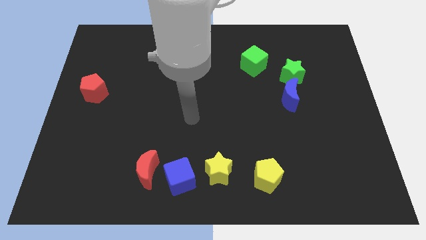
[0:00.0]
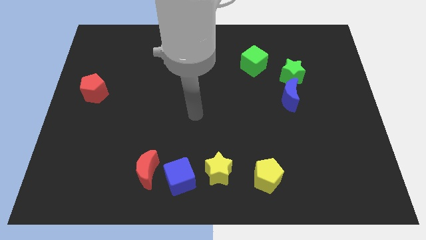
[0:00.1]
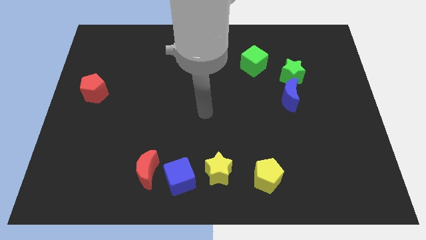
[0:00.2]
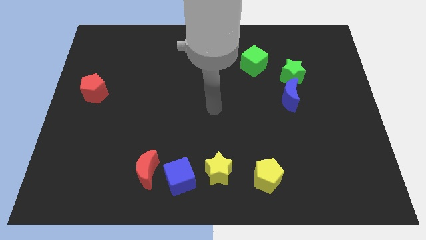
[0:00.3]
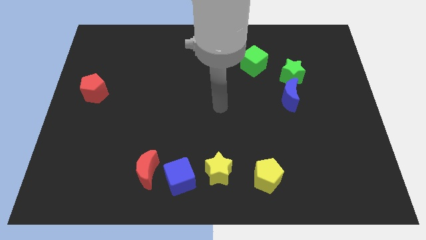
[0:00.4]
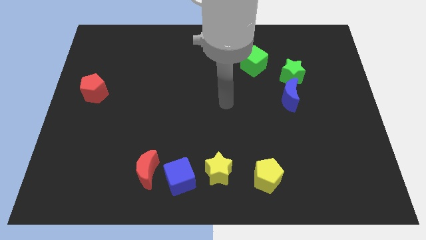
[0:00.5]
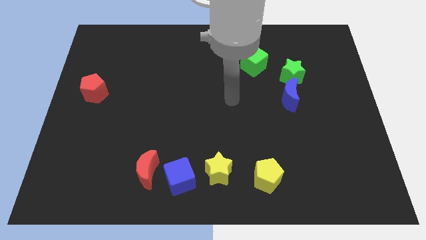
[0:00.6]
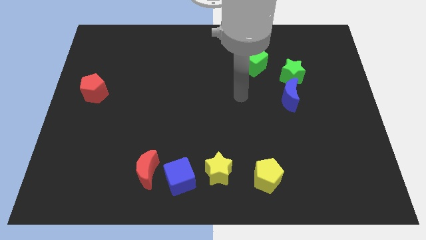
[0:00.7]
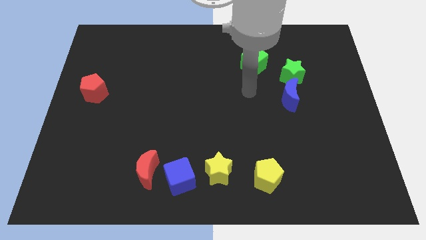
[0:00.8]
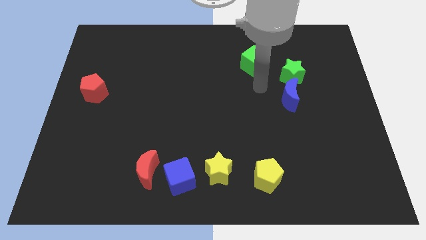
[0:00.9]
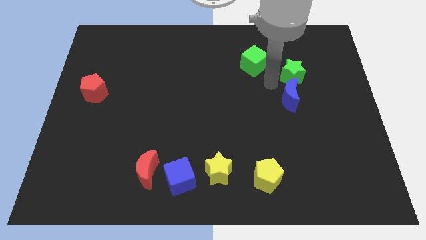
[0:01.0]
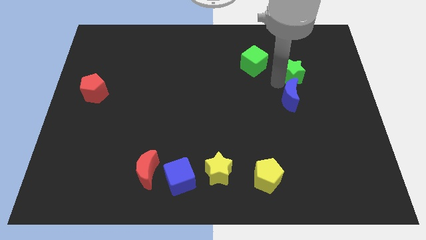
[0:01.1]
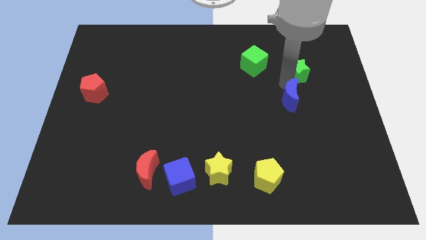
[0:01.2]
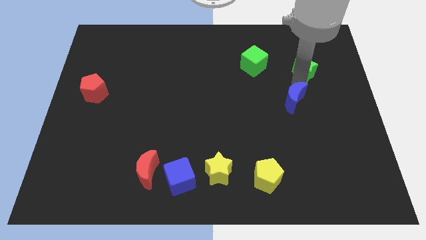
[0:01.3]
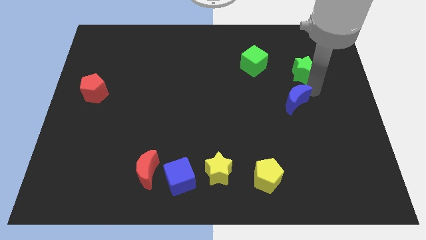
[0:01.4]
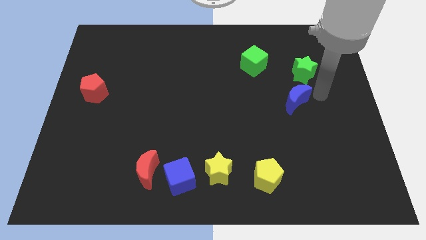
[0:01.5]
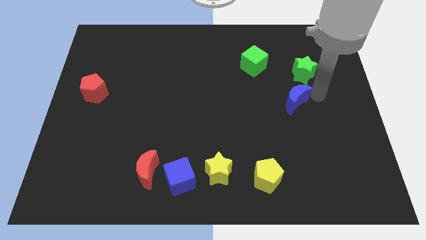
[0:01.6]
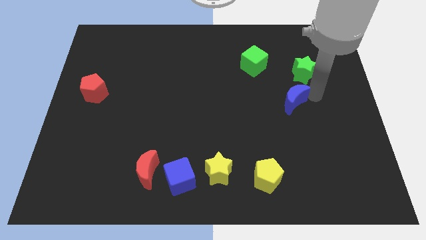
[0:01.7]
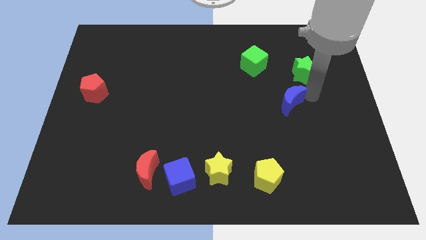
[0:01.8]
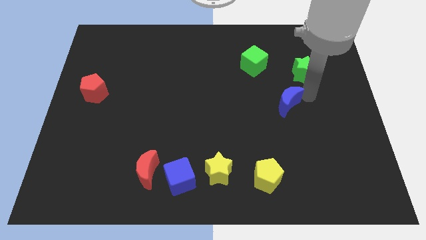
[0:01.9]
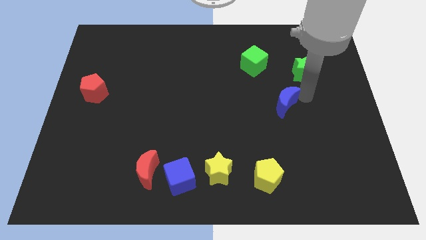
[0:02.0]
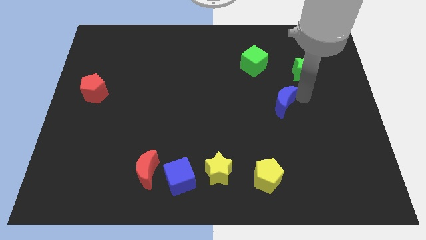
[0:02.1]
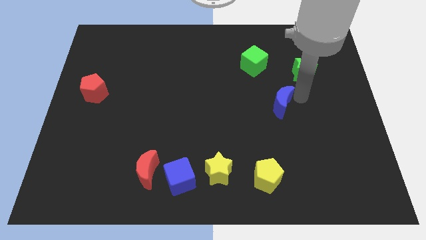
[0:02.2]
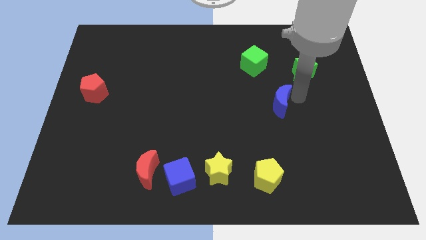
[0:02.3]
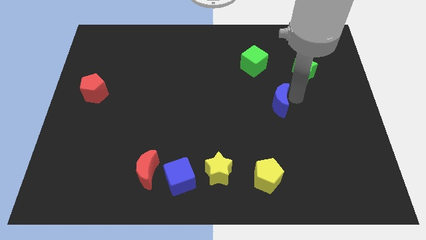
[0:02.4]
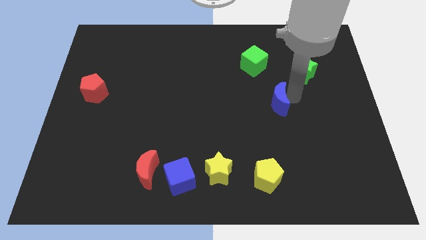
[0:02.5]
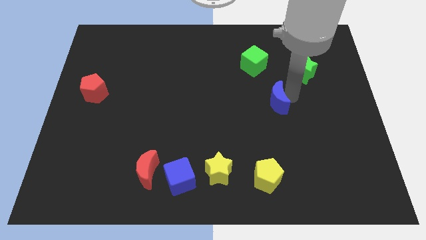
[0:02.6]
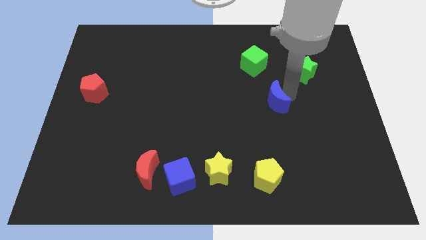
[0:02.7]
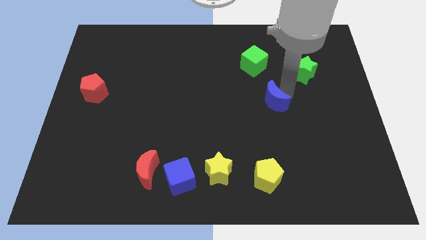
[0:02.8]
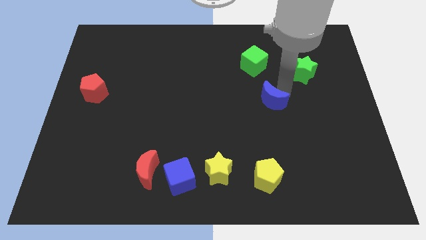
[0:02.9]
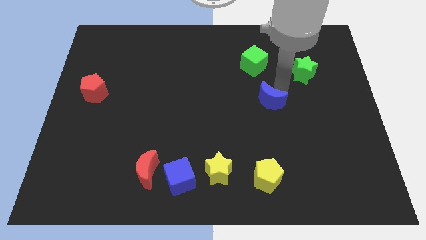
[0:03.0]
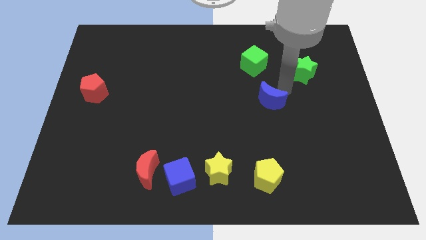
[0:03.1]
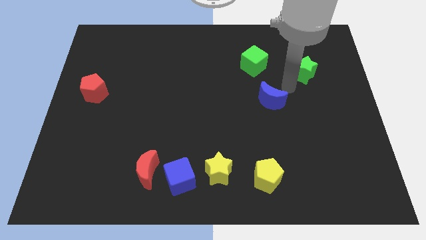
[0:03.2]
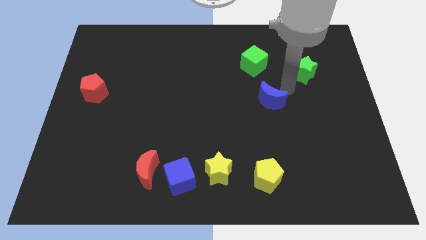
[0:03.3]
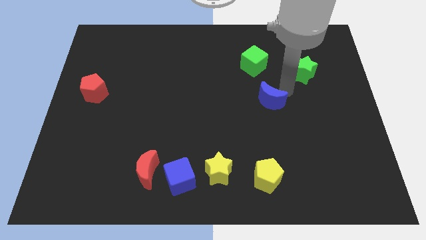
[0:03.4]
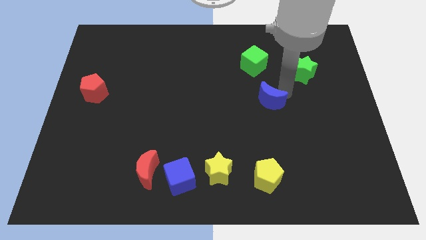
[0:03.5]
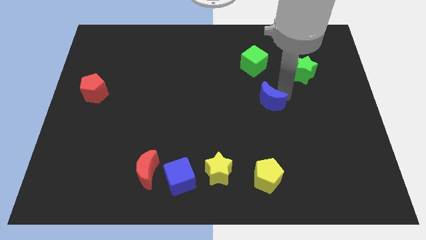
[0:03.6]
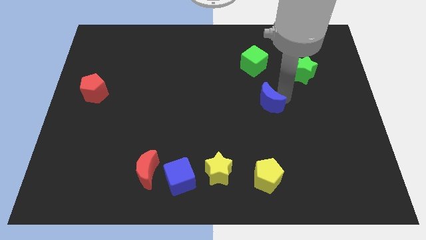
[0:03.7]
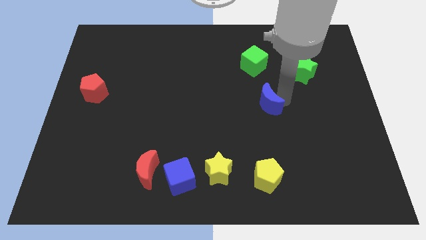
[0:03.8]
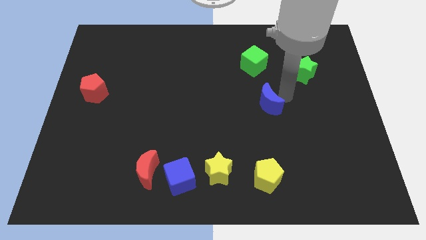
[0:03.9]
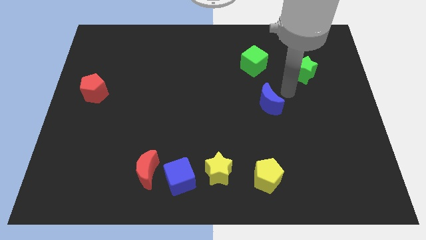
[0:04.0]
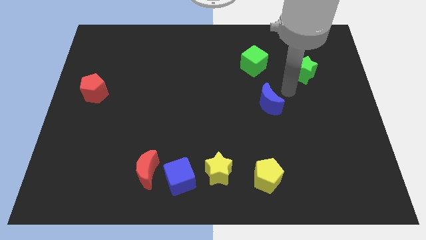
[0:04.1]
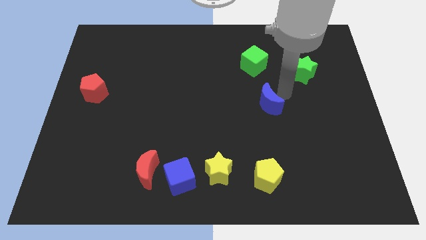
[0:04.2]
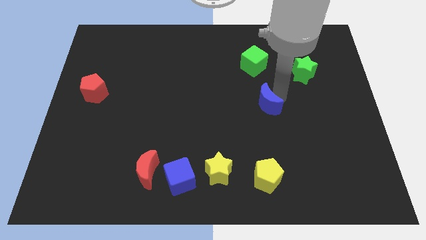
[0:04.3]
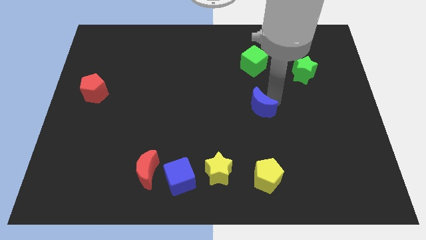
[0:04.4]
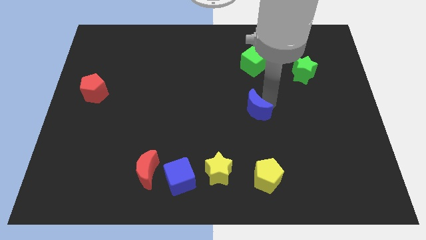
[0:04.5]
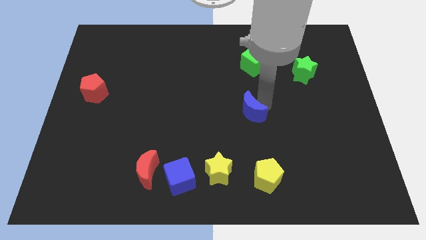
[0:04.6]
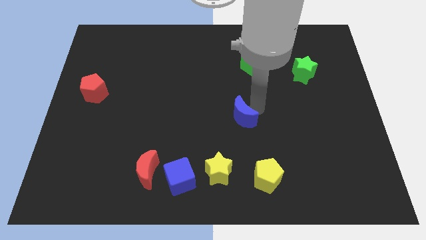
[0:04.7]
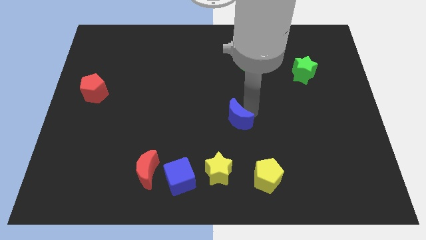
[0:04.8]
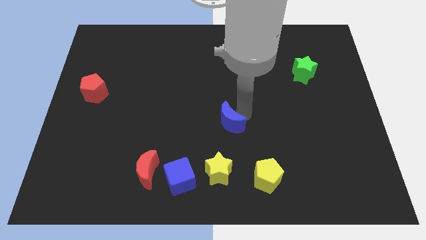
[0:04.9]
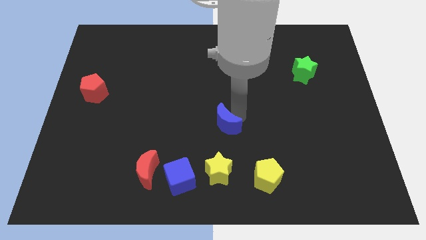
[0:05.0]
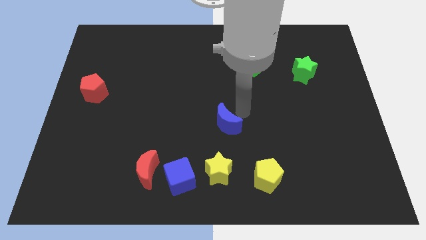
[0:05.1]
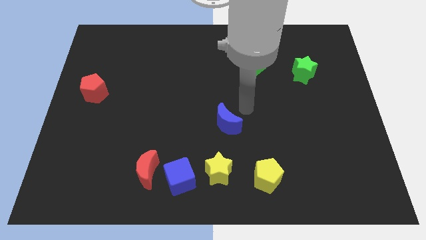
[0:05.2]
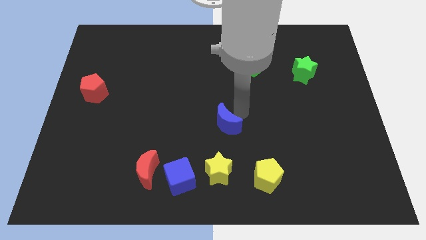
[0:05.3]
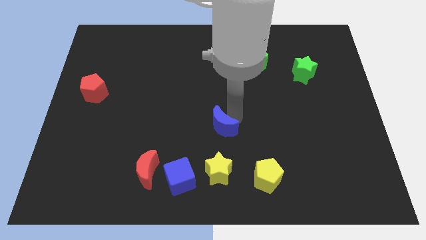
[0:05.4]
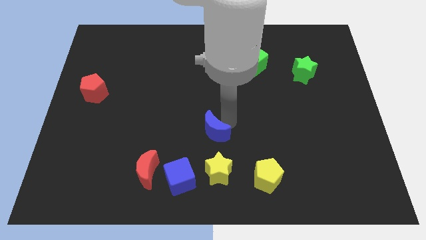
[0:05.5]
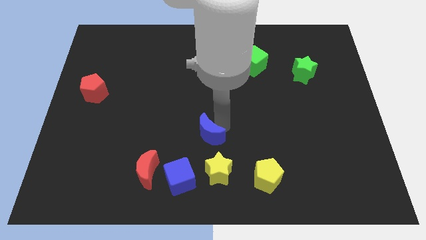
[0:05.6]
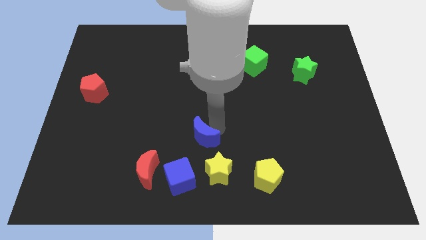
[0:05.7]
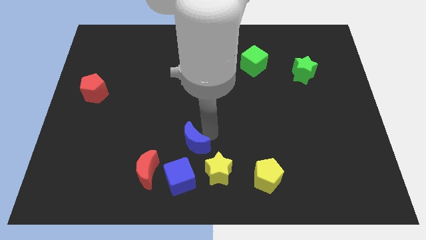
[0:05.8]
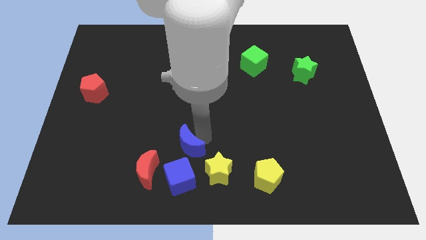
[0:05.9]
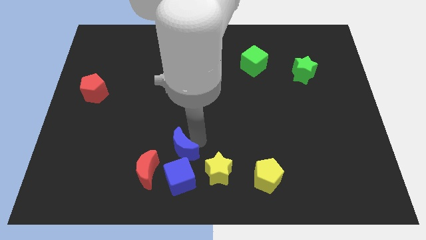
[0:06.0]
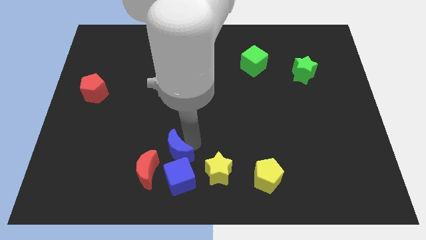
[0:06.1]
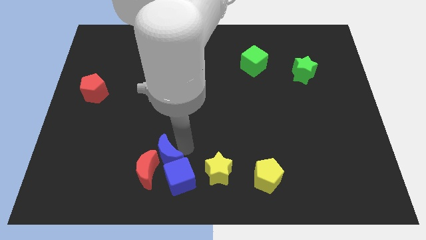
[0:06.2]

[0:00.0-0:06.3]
push the blue moon next to the red moon

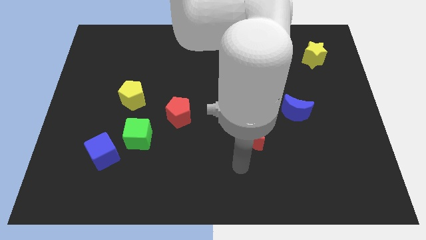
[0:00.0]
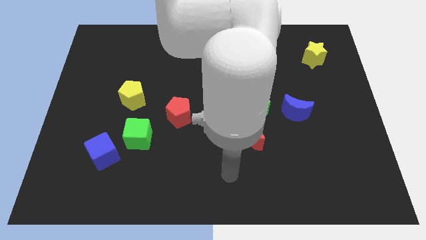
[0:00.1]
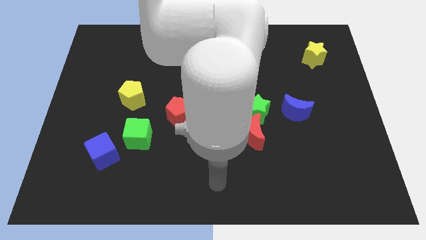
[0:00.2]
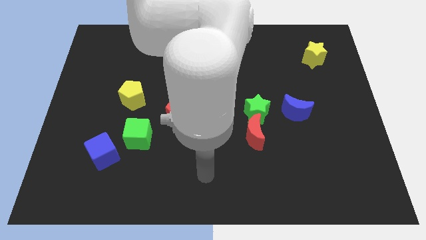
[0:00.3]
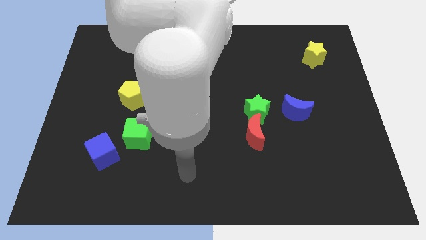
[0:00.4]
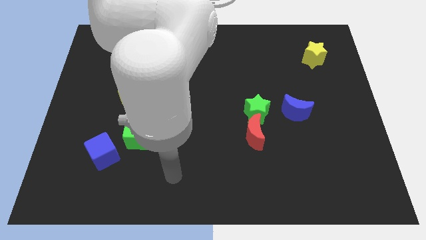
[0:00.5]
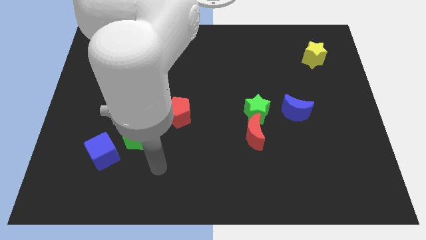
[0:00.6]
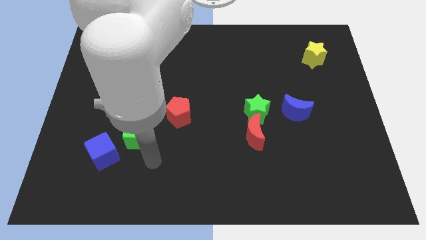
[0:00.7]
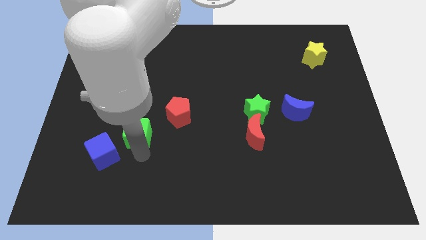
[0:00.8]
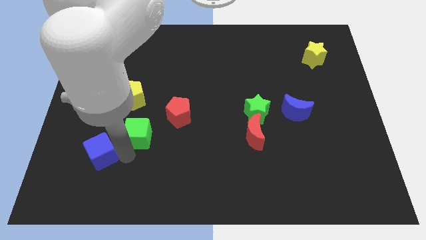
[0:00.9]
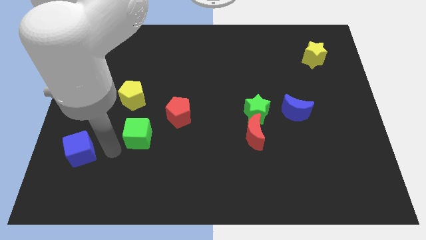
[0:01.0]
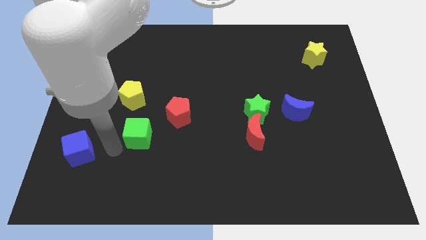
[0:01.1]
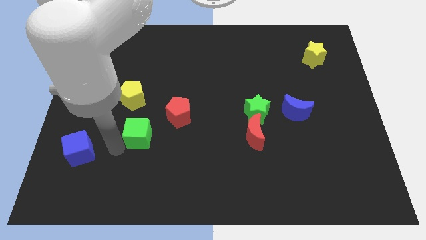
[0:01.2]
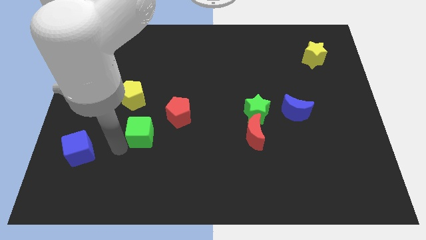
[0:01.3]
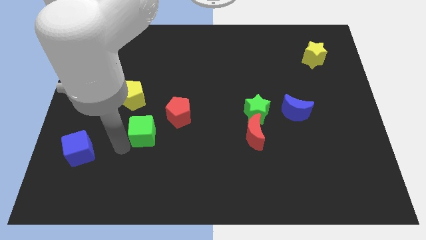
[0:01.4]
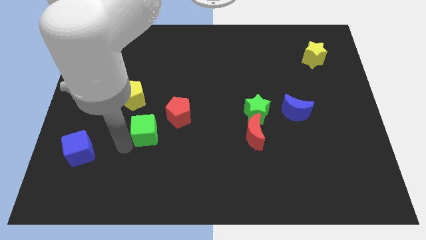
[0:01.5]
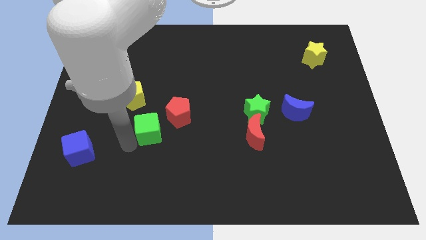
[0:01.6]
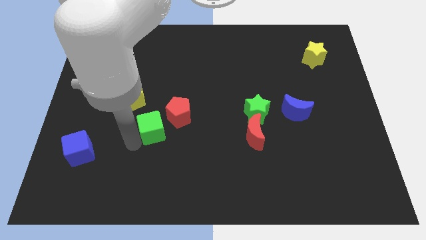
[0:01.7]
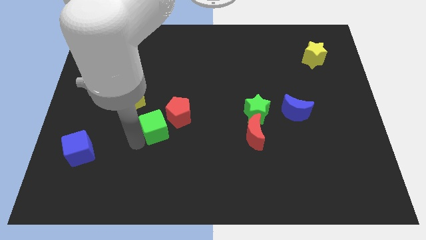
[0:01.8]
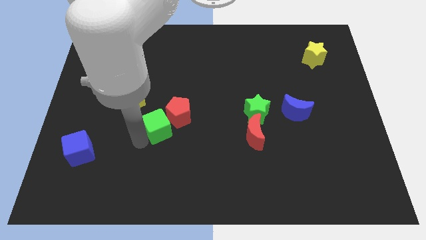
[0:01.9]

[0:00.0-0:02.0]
move the green cube to the red pentagon
